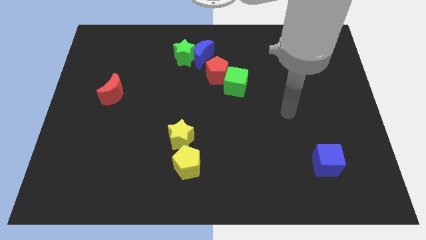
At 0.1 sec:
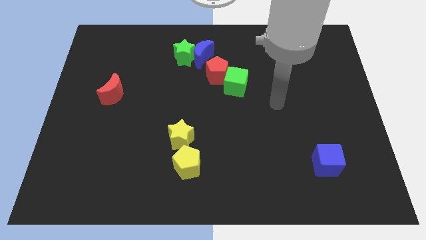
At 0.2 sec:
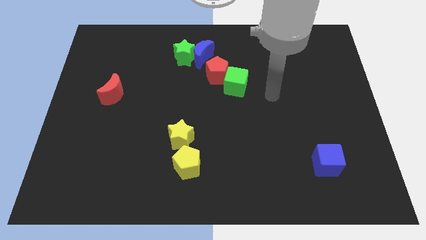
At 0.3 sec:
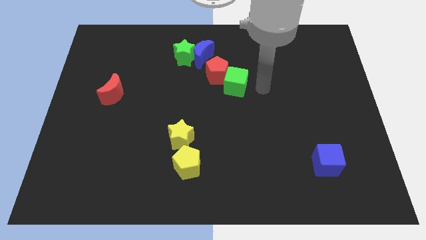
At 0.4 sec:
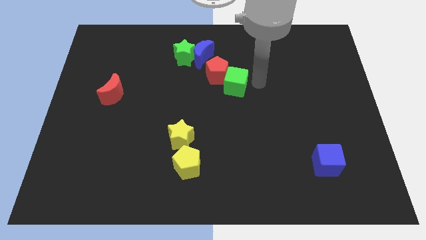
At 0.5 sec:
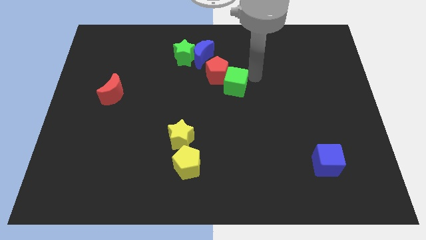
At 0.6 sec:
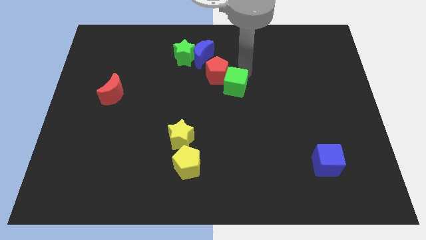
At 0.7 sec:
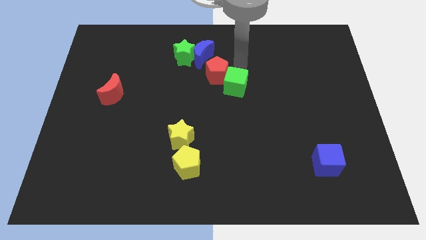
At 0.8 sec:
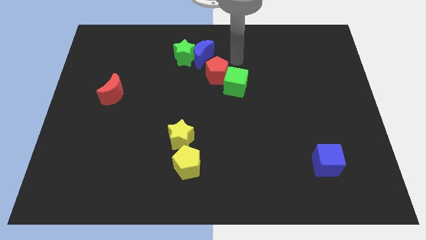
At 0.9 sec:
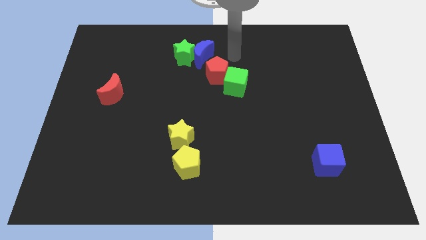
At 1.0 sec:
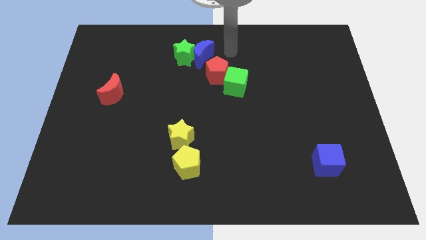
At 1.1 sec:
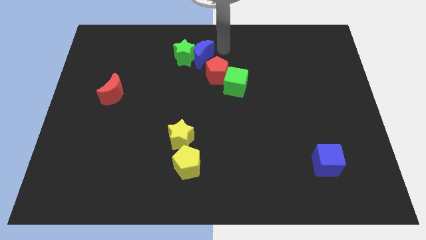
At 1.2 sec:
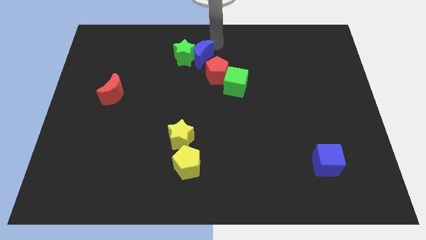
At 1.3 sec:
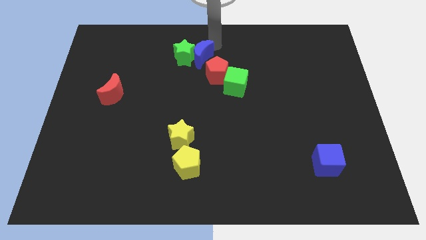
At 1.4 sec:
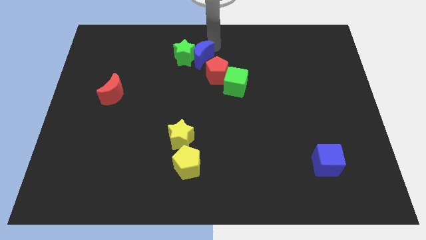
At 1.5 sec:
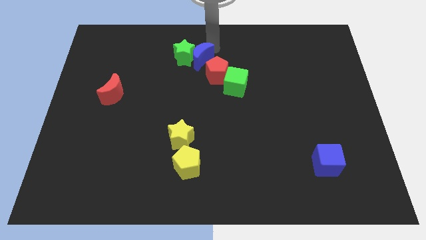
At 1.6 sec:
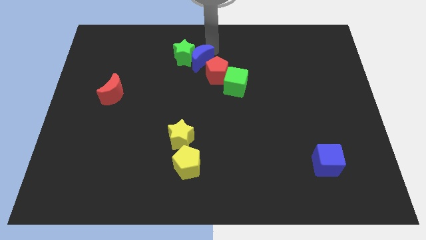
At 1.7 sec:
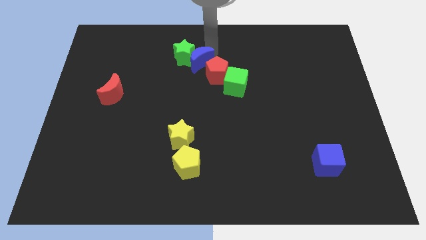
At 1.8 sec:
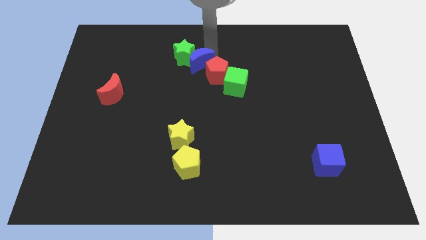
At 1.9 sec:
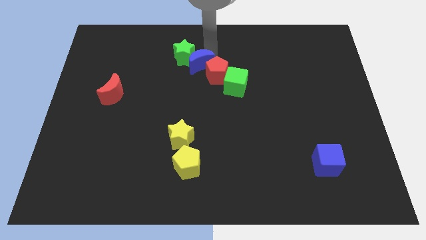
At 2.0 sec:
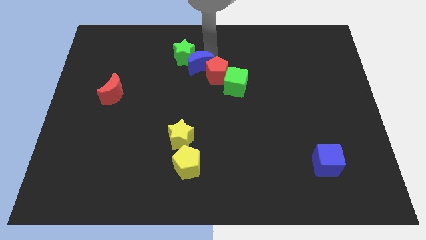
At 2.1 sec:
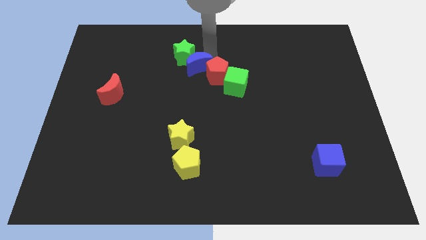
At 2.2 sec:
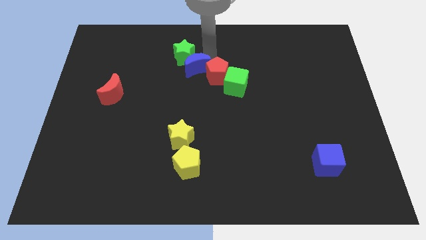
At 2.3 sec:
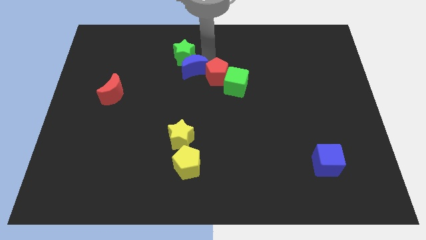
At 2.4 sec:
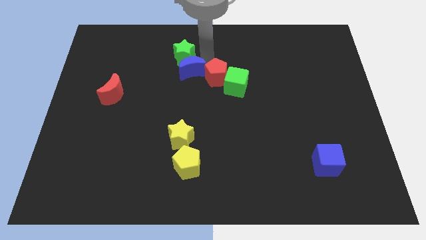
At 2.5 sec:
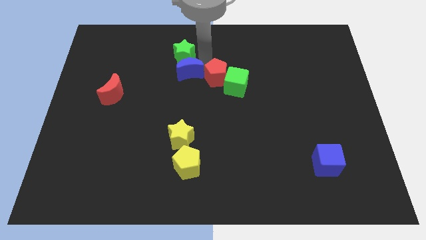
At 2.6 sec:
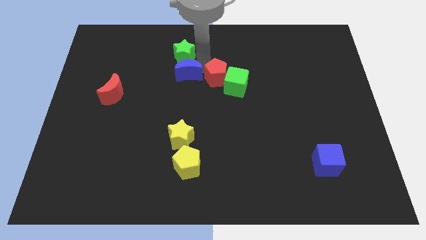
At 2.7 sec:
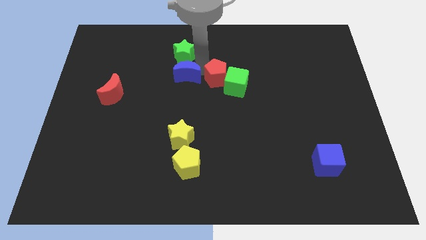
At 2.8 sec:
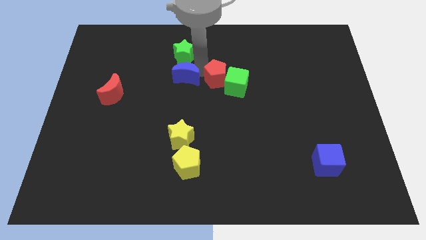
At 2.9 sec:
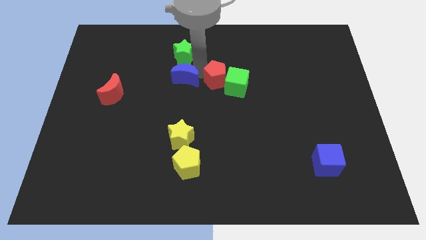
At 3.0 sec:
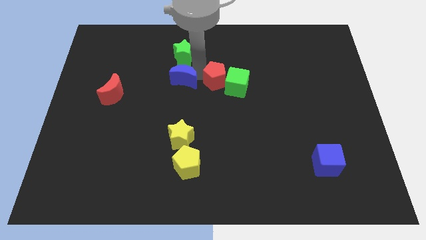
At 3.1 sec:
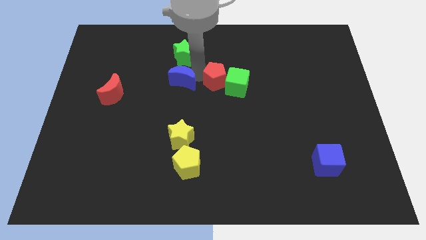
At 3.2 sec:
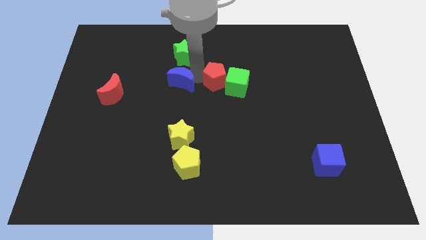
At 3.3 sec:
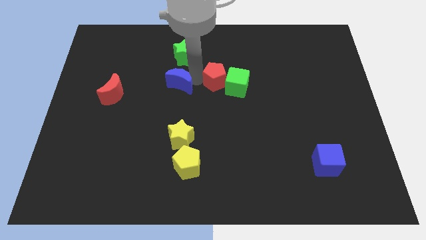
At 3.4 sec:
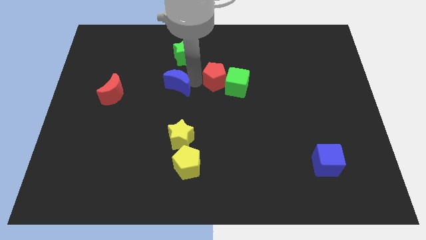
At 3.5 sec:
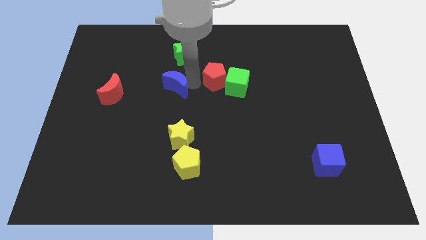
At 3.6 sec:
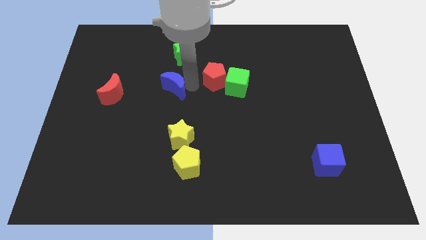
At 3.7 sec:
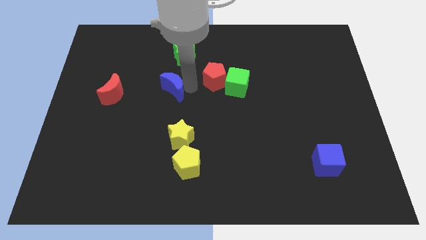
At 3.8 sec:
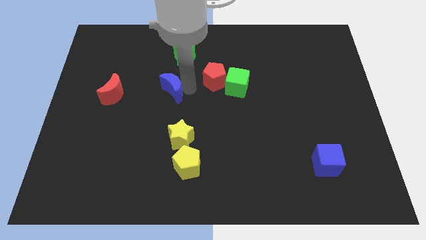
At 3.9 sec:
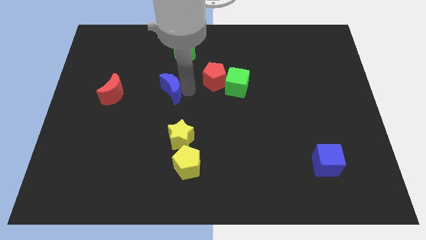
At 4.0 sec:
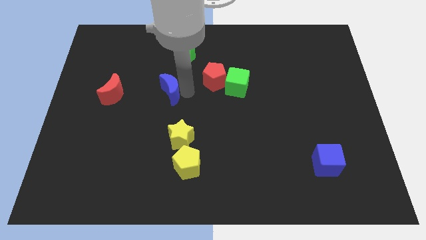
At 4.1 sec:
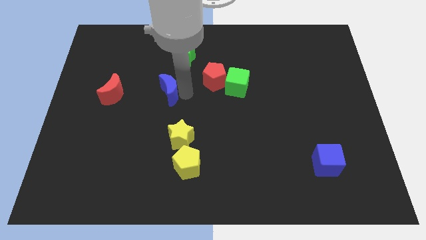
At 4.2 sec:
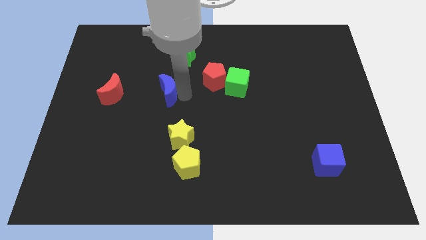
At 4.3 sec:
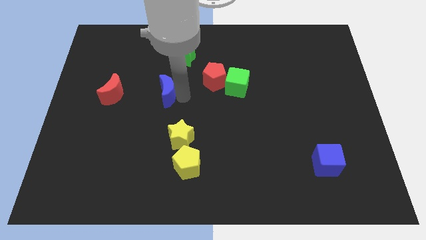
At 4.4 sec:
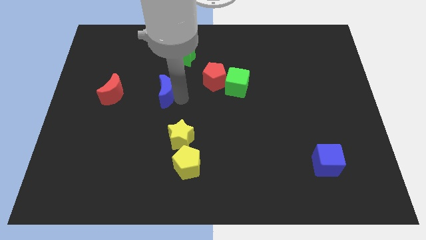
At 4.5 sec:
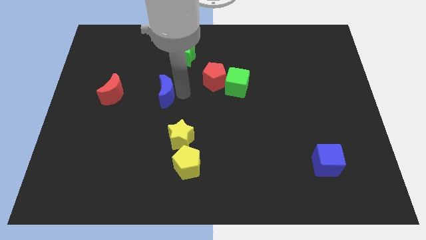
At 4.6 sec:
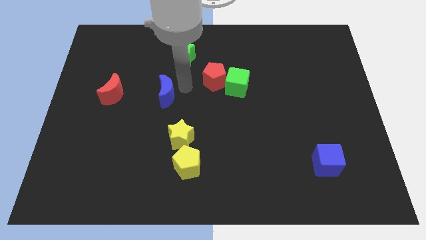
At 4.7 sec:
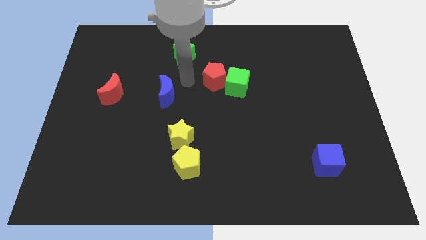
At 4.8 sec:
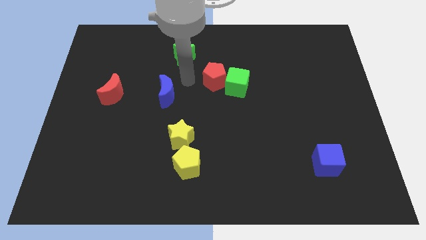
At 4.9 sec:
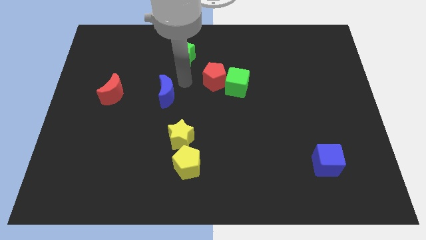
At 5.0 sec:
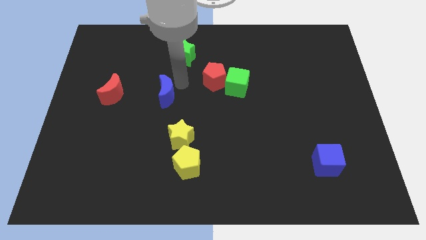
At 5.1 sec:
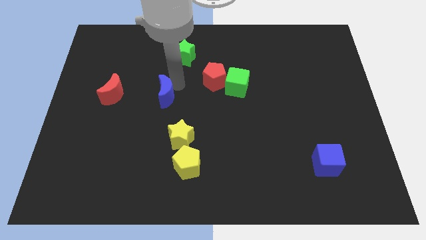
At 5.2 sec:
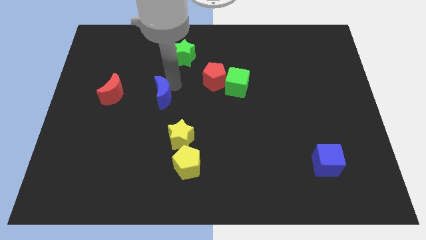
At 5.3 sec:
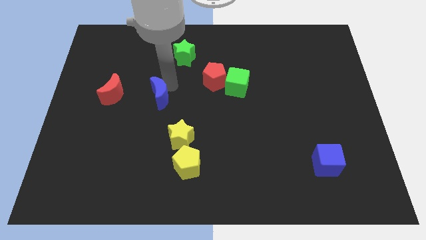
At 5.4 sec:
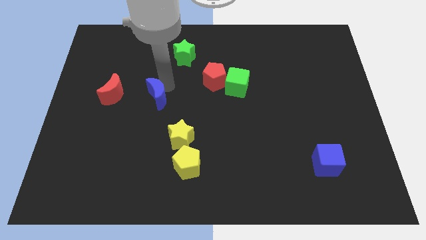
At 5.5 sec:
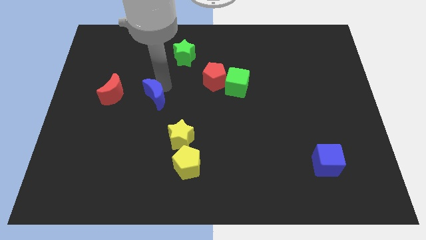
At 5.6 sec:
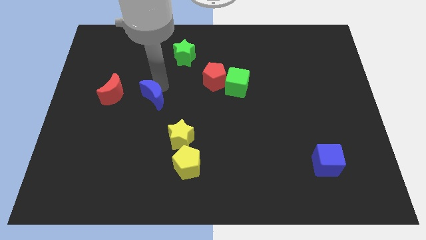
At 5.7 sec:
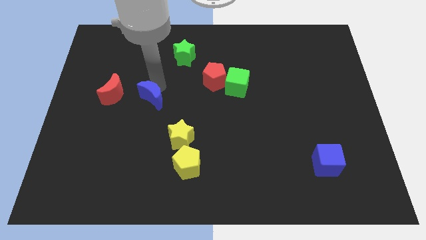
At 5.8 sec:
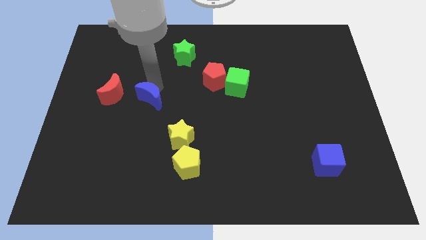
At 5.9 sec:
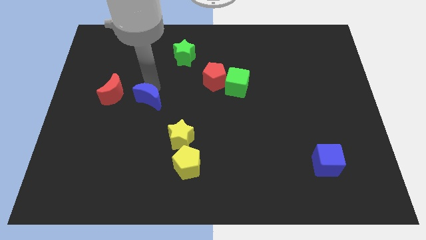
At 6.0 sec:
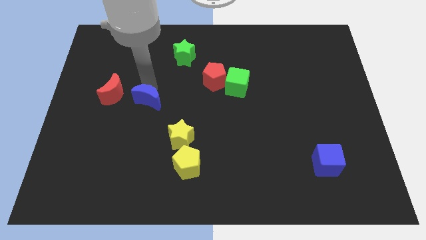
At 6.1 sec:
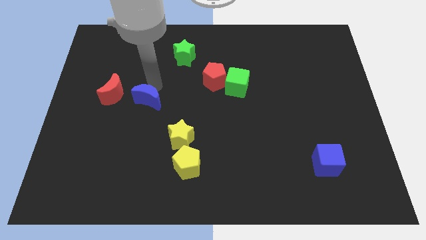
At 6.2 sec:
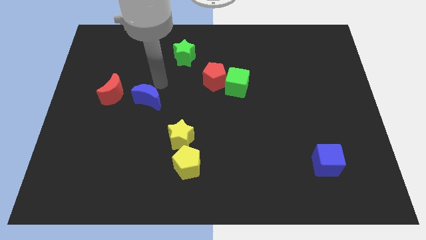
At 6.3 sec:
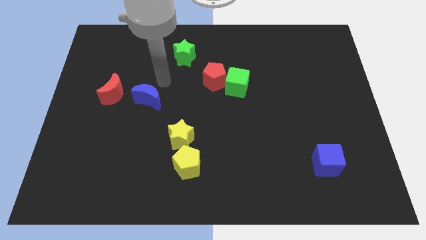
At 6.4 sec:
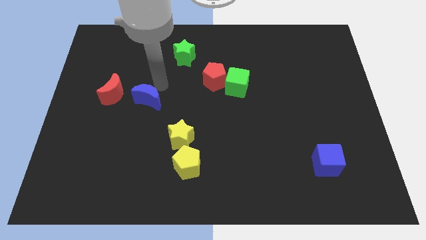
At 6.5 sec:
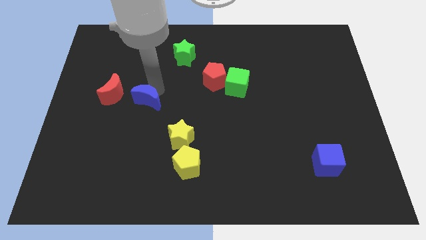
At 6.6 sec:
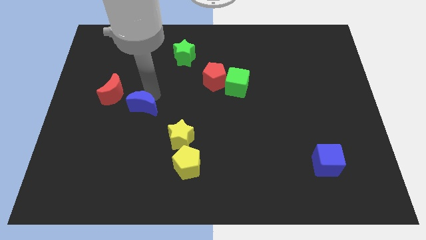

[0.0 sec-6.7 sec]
move the blue moon downwards and to the left

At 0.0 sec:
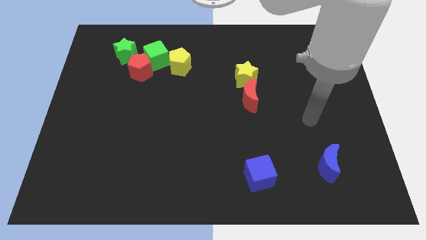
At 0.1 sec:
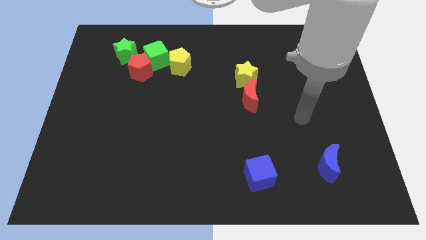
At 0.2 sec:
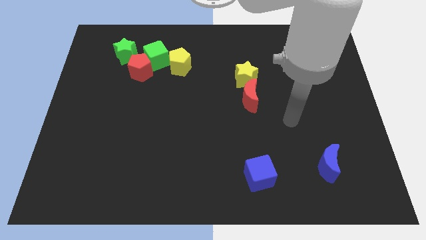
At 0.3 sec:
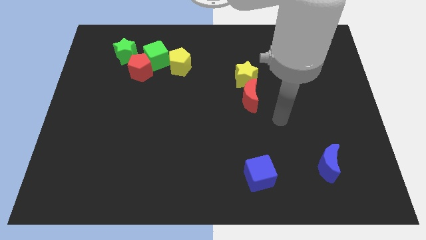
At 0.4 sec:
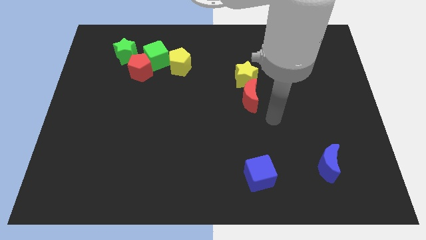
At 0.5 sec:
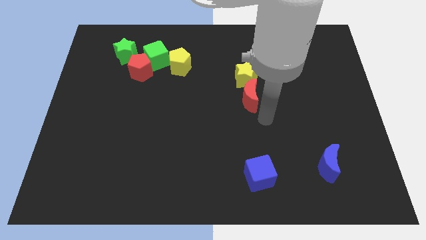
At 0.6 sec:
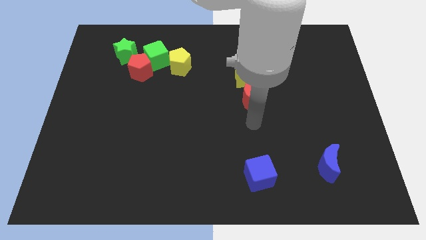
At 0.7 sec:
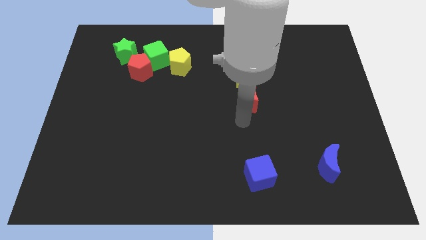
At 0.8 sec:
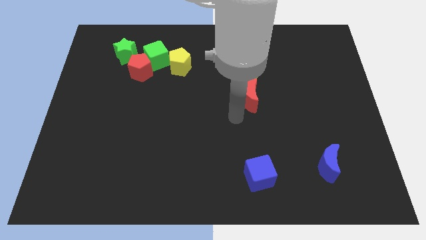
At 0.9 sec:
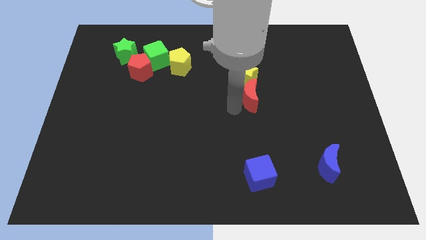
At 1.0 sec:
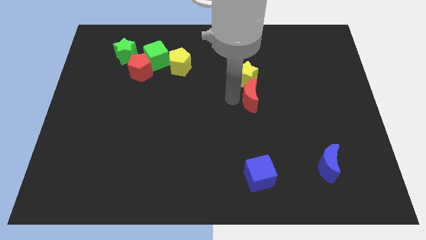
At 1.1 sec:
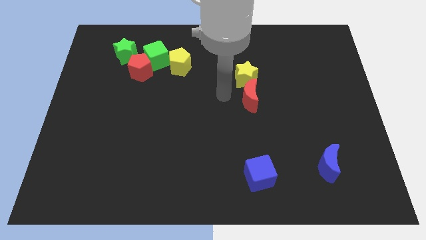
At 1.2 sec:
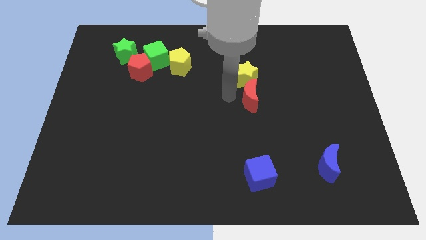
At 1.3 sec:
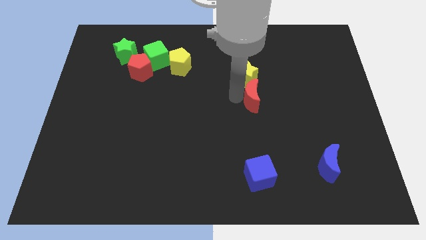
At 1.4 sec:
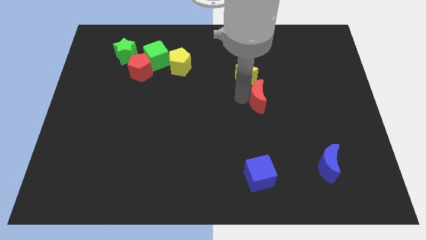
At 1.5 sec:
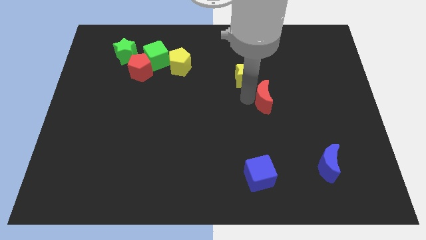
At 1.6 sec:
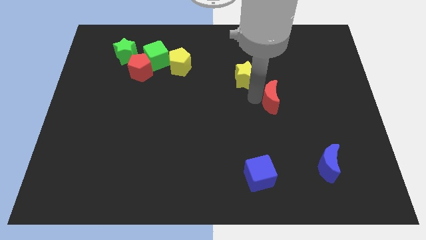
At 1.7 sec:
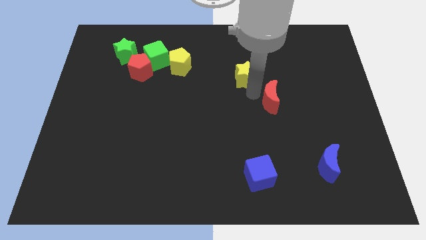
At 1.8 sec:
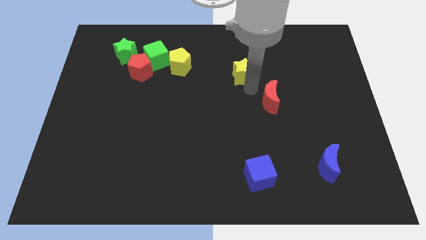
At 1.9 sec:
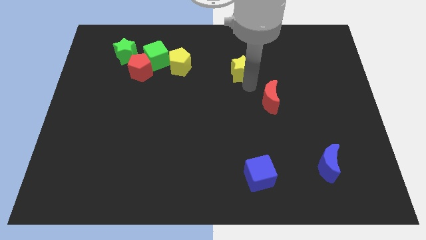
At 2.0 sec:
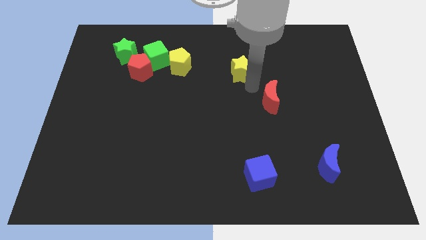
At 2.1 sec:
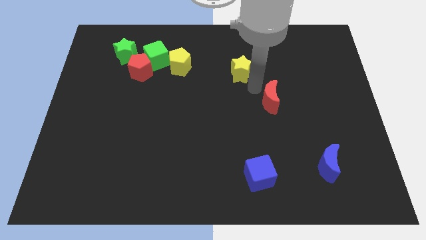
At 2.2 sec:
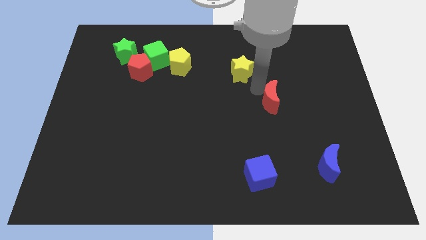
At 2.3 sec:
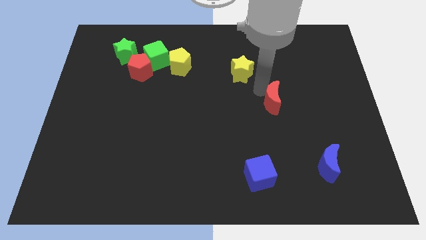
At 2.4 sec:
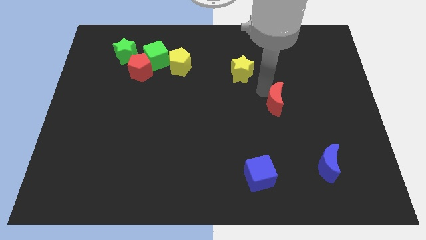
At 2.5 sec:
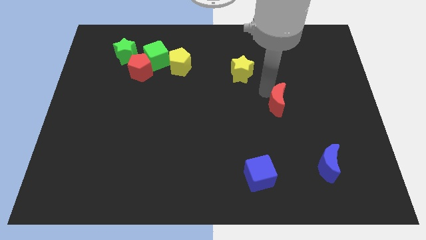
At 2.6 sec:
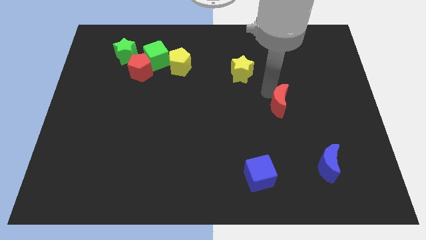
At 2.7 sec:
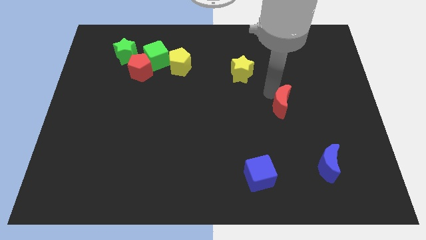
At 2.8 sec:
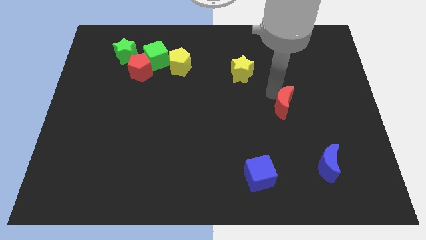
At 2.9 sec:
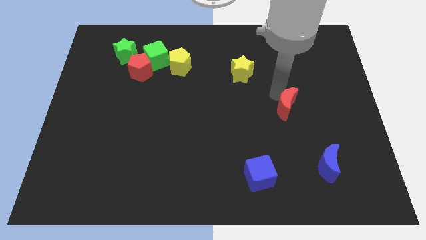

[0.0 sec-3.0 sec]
push the red moon somewhat downwards and right diagonally
